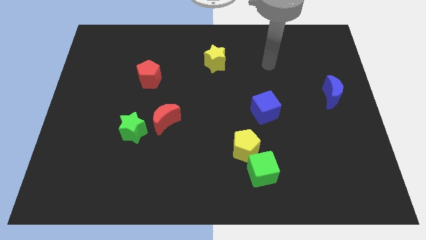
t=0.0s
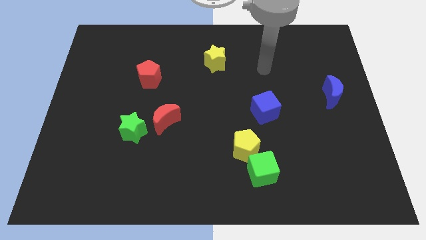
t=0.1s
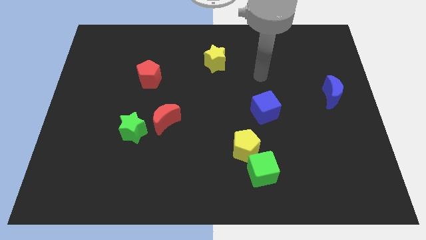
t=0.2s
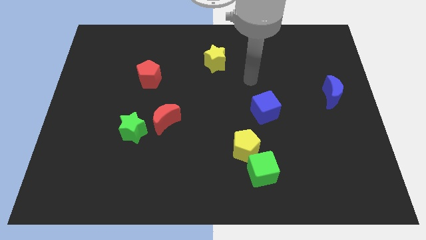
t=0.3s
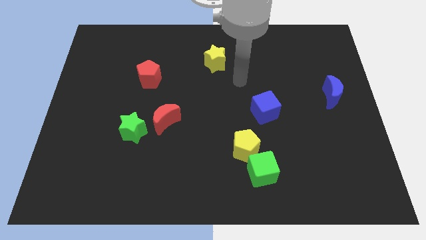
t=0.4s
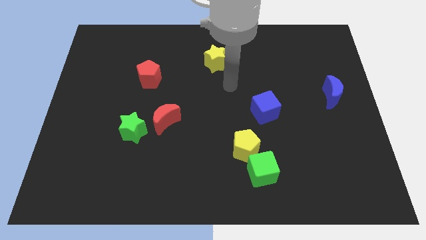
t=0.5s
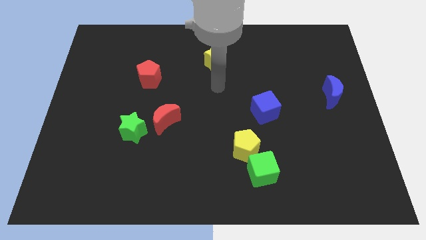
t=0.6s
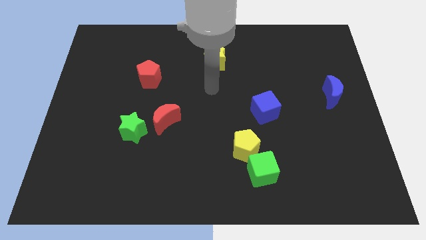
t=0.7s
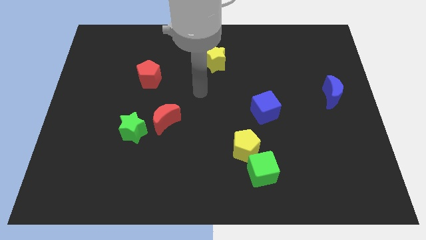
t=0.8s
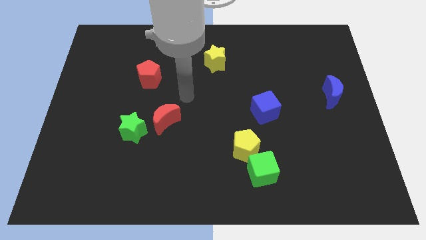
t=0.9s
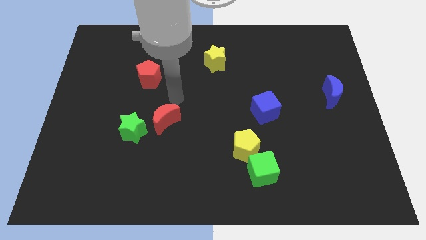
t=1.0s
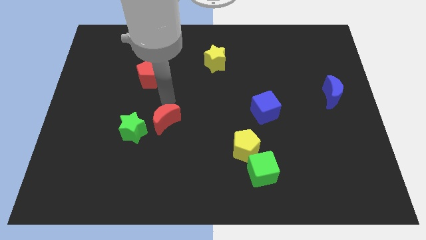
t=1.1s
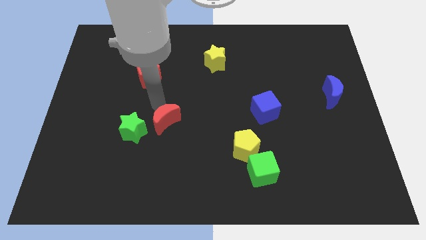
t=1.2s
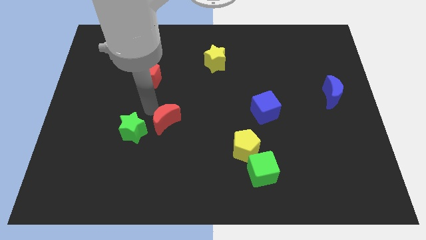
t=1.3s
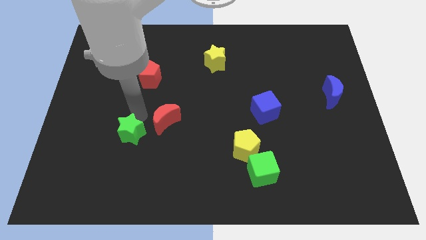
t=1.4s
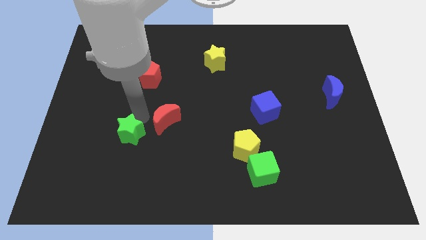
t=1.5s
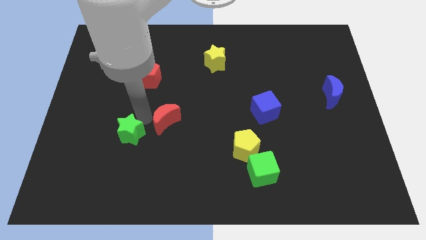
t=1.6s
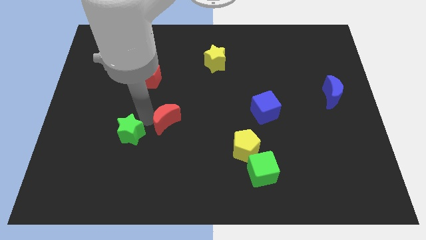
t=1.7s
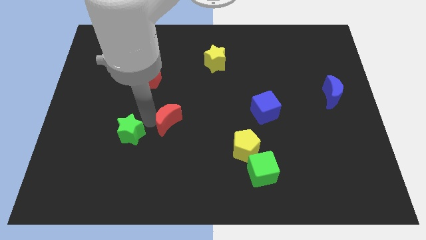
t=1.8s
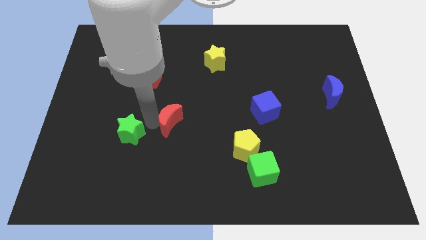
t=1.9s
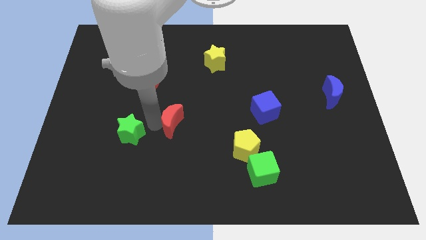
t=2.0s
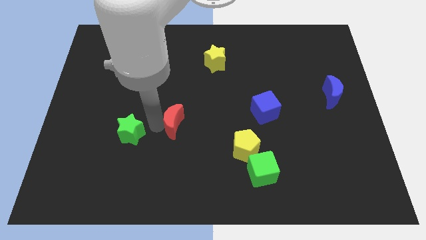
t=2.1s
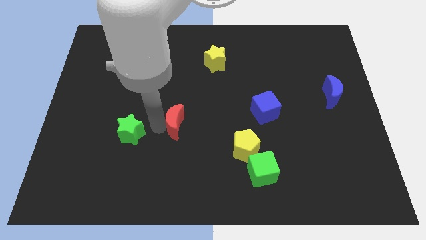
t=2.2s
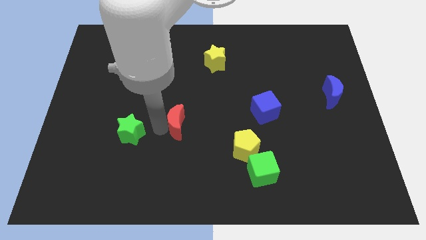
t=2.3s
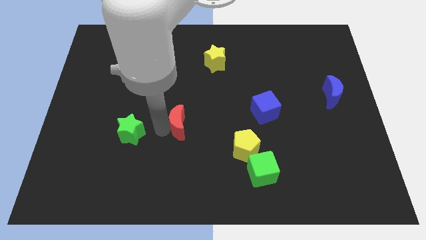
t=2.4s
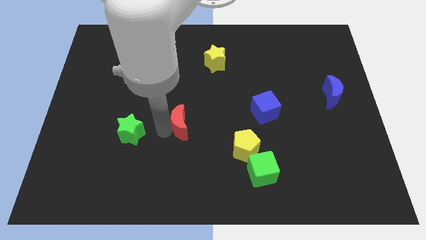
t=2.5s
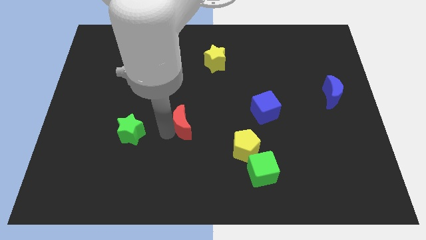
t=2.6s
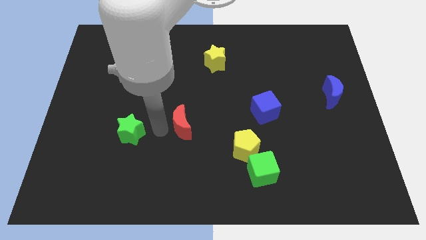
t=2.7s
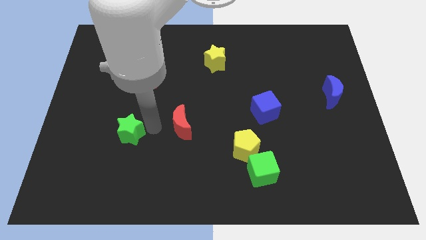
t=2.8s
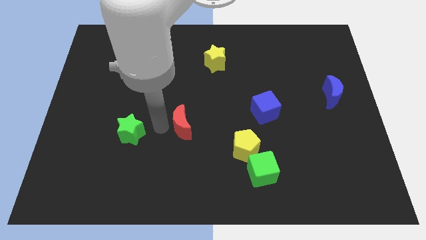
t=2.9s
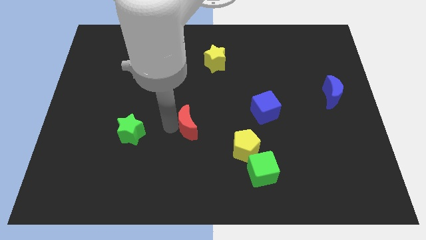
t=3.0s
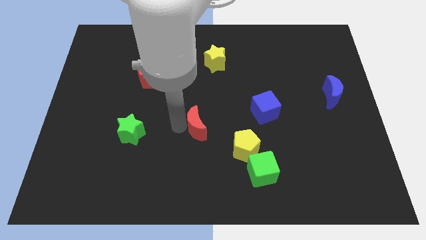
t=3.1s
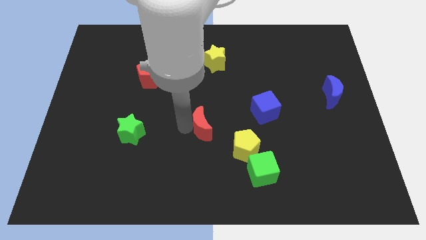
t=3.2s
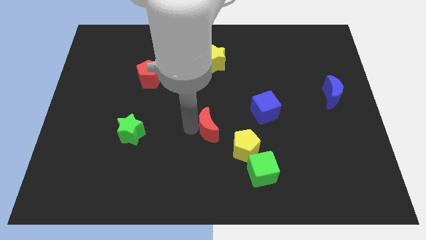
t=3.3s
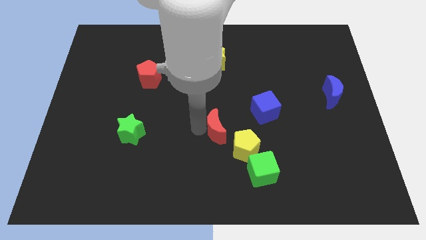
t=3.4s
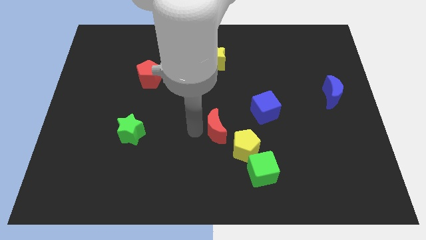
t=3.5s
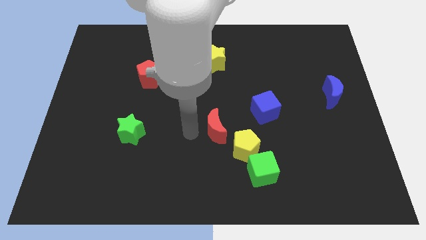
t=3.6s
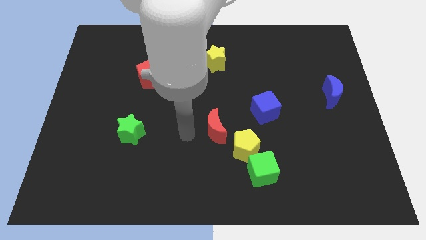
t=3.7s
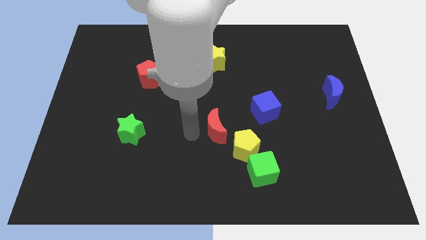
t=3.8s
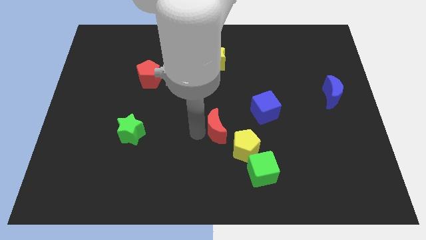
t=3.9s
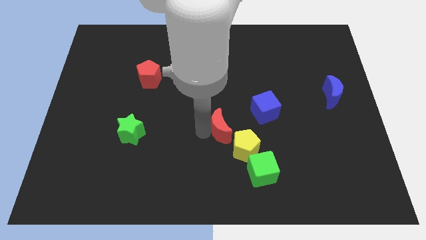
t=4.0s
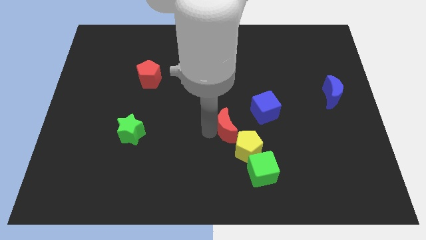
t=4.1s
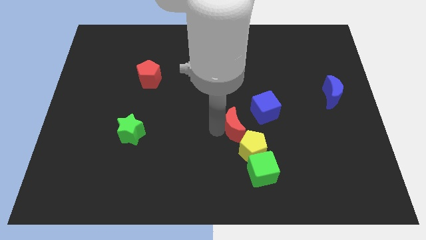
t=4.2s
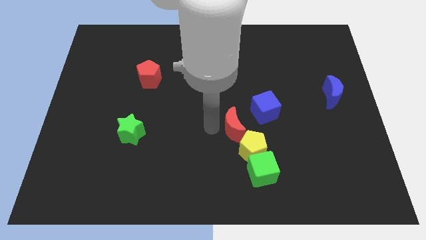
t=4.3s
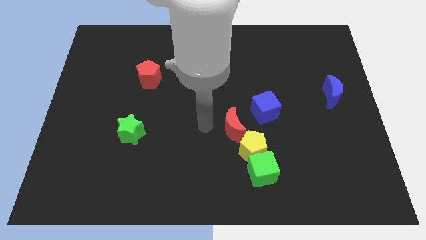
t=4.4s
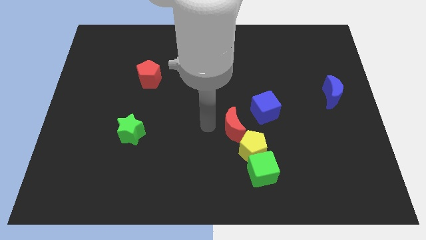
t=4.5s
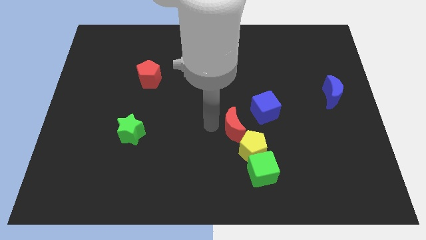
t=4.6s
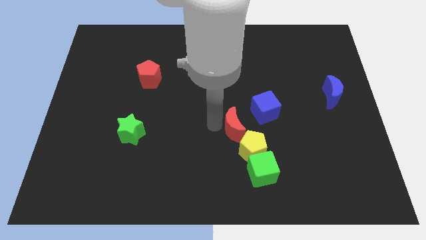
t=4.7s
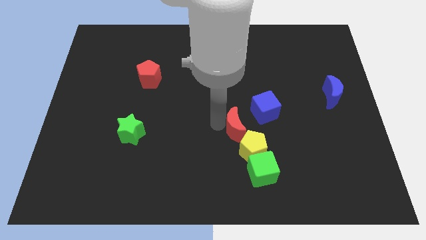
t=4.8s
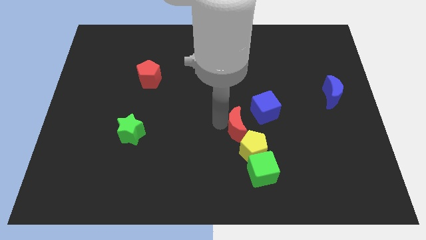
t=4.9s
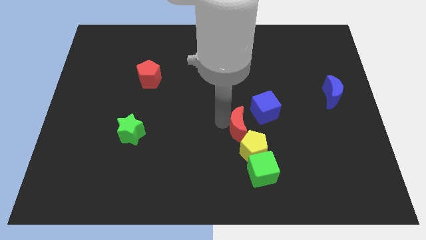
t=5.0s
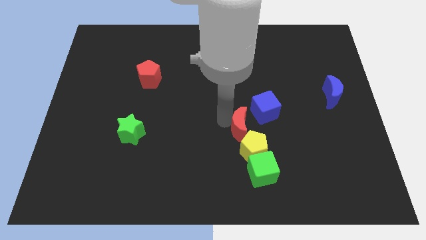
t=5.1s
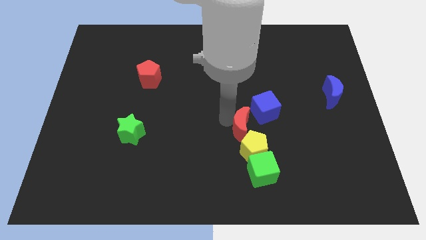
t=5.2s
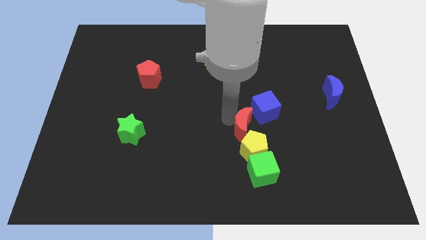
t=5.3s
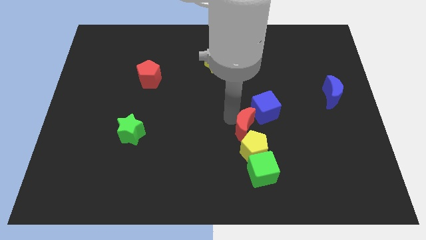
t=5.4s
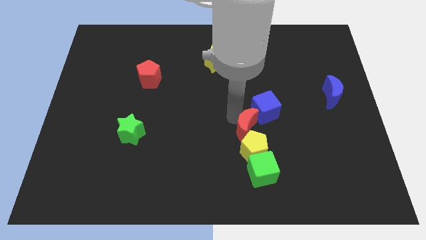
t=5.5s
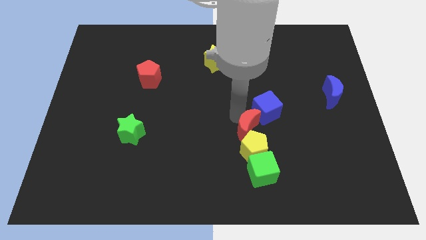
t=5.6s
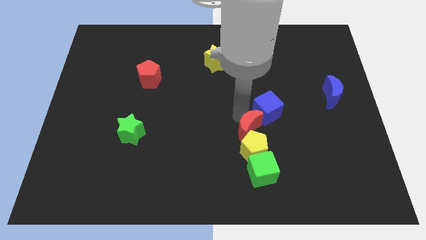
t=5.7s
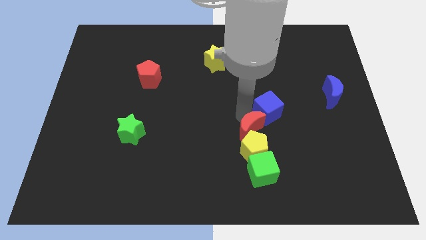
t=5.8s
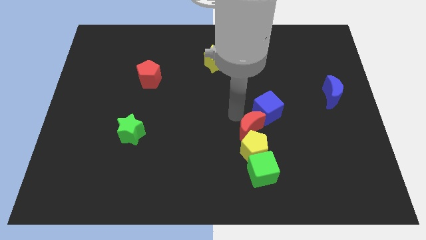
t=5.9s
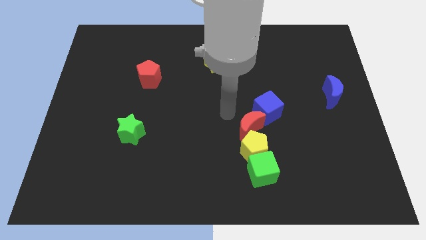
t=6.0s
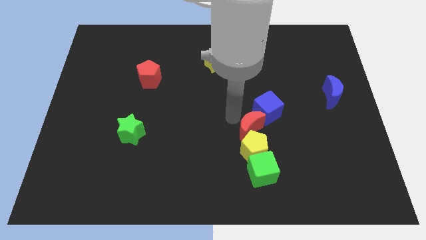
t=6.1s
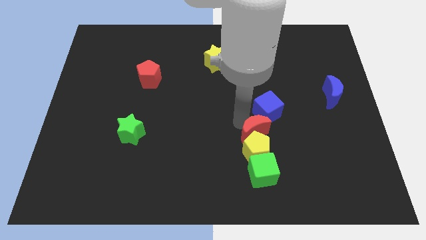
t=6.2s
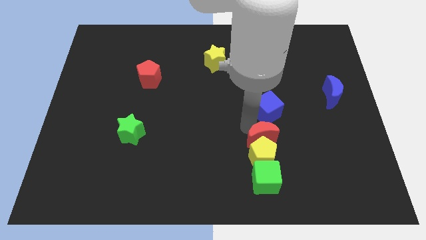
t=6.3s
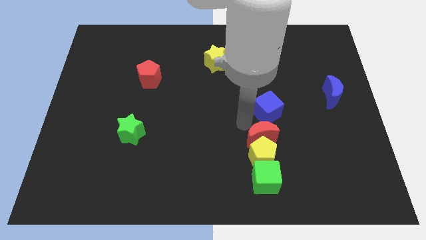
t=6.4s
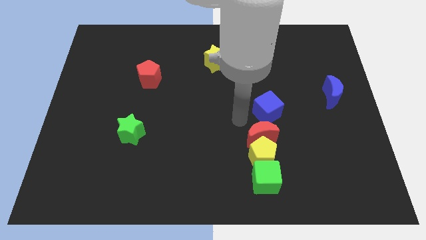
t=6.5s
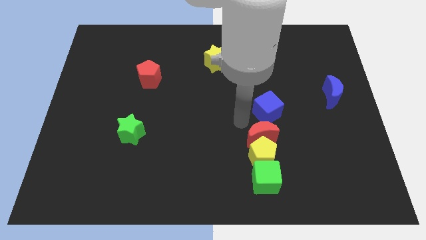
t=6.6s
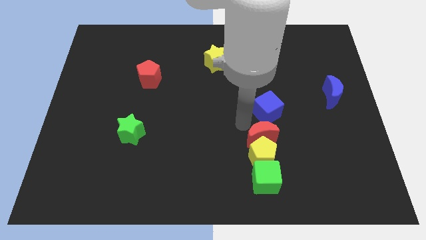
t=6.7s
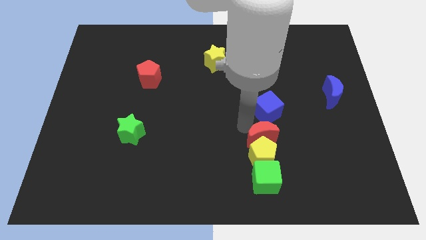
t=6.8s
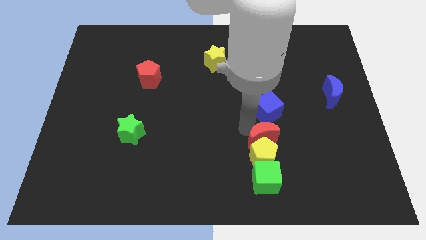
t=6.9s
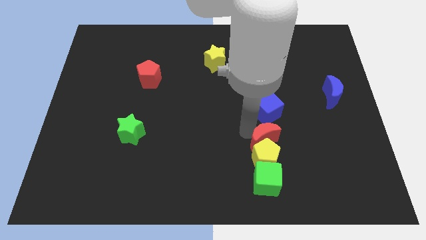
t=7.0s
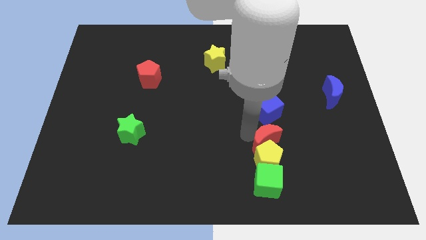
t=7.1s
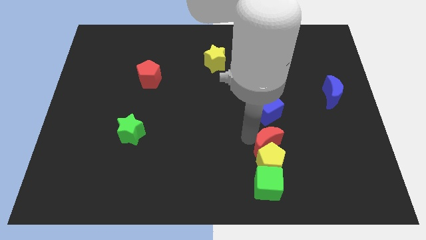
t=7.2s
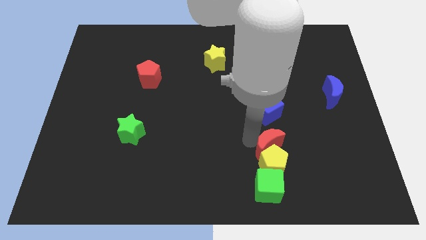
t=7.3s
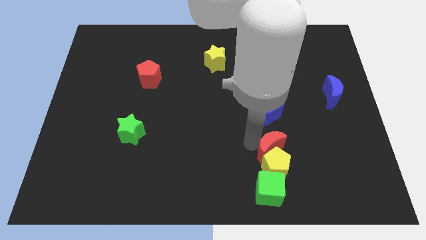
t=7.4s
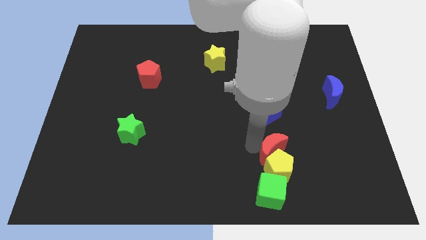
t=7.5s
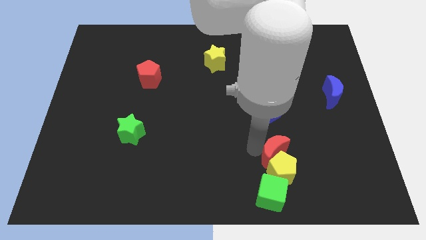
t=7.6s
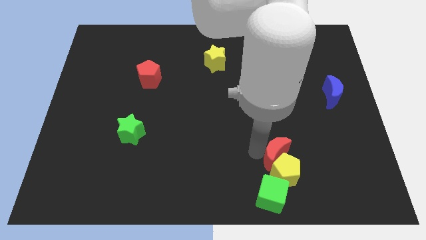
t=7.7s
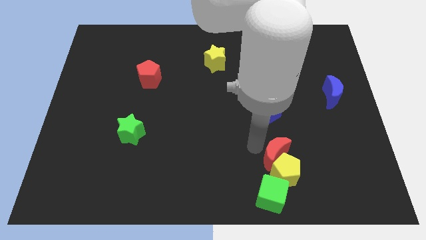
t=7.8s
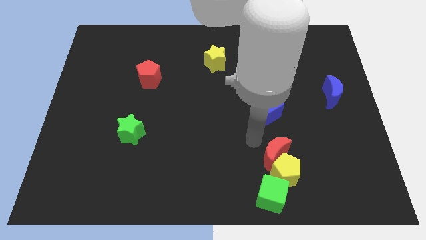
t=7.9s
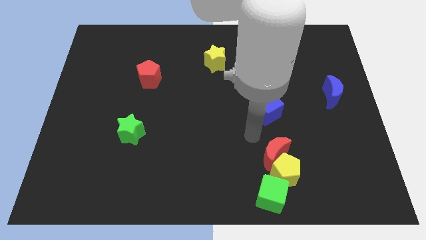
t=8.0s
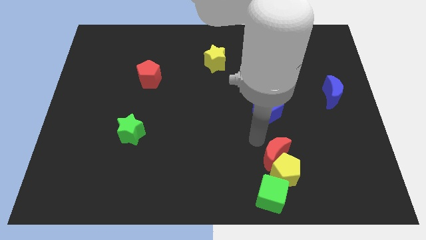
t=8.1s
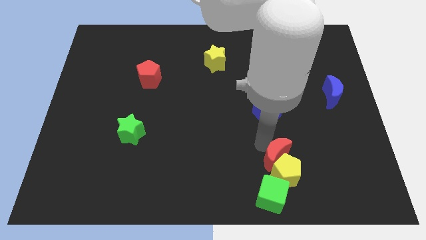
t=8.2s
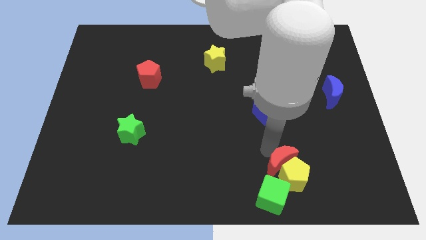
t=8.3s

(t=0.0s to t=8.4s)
slide the red moon to the top right side of the green cube
